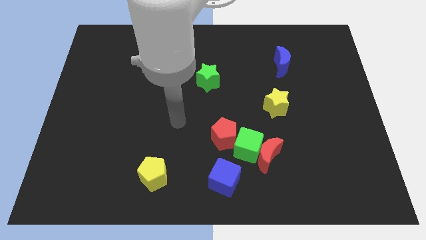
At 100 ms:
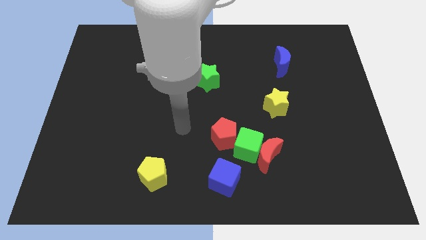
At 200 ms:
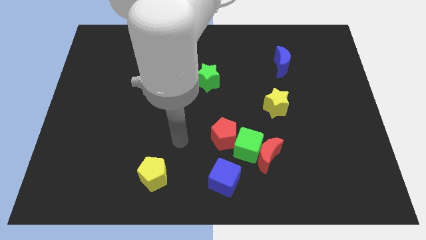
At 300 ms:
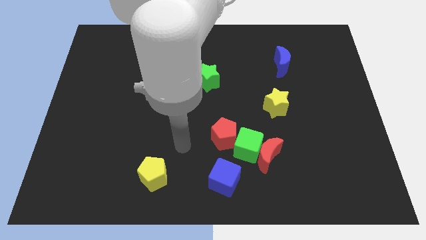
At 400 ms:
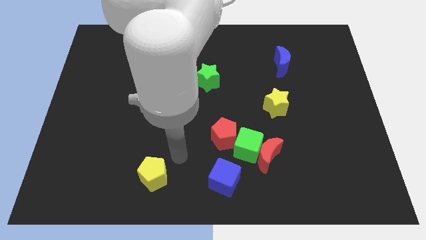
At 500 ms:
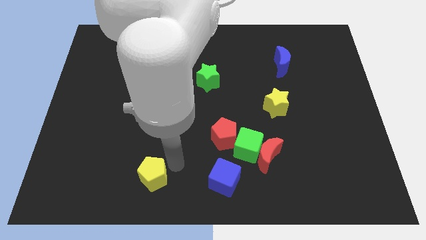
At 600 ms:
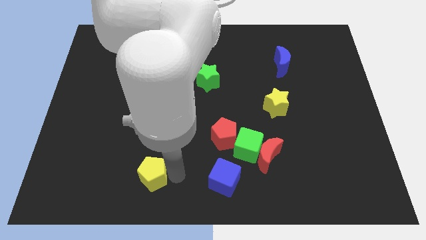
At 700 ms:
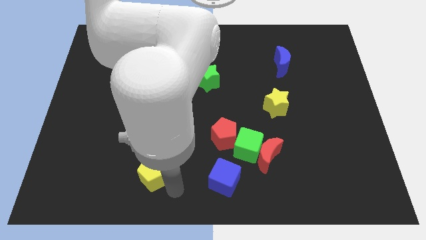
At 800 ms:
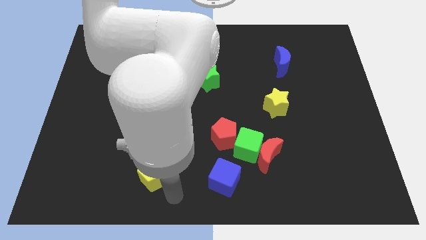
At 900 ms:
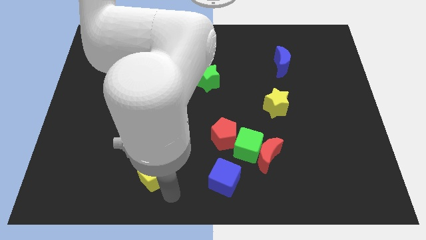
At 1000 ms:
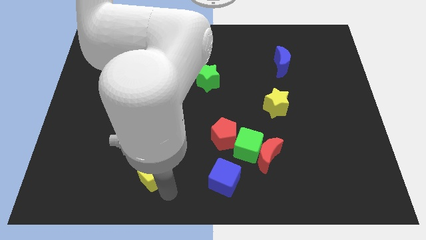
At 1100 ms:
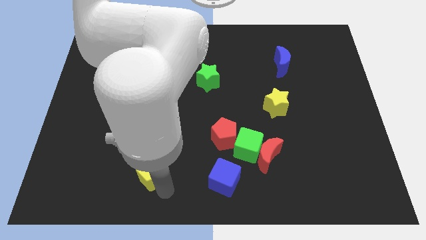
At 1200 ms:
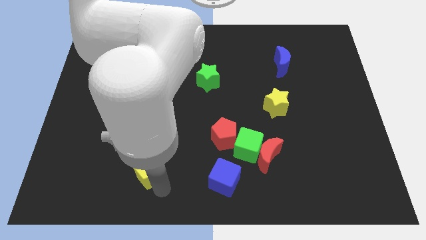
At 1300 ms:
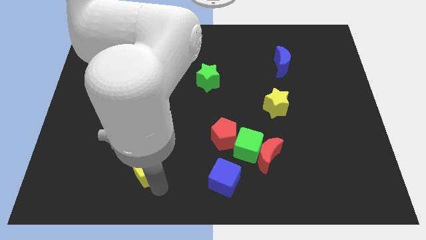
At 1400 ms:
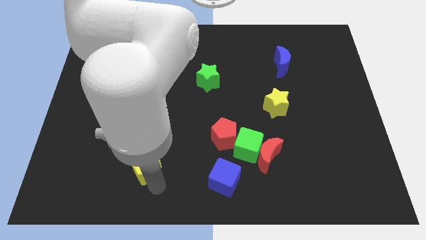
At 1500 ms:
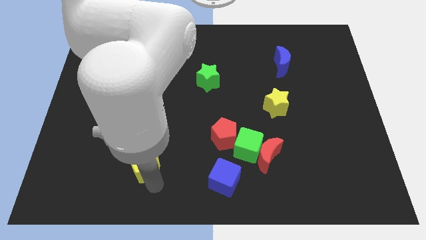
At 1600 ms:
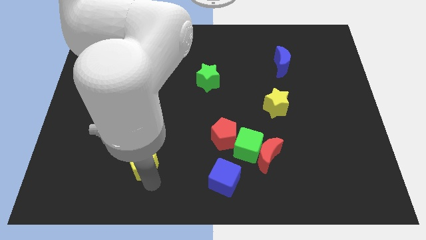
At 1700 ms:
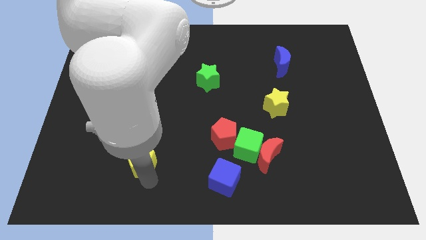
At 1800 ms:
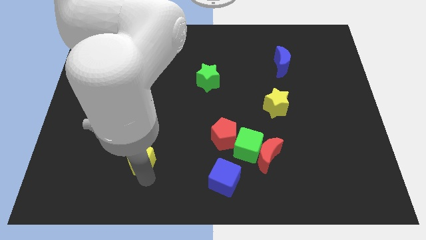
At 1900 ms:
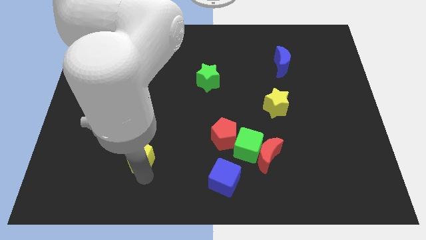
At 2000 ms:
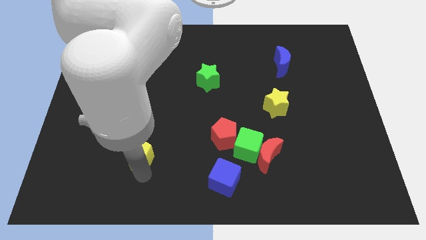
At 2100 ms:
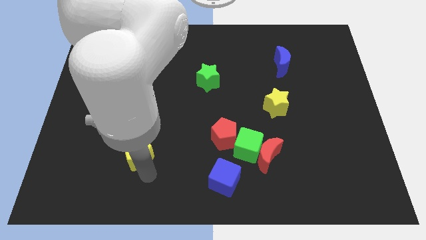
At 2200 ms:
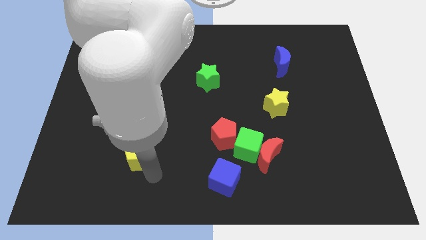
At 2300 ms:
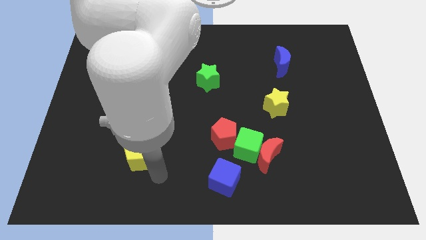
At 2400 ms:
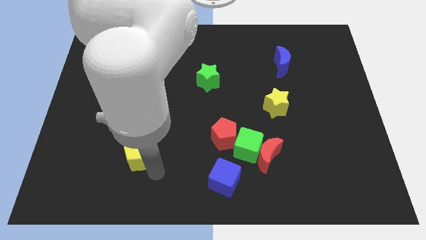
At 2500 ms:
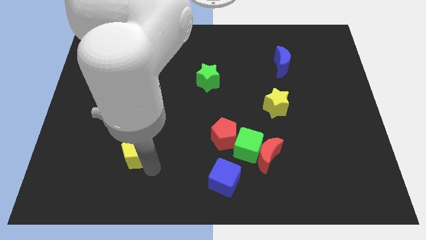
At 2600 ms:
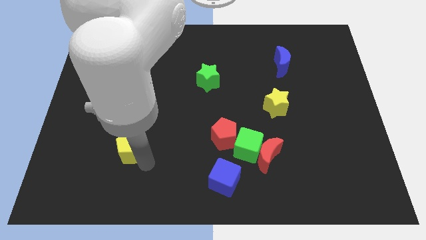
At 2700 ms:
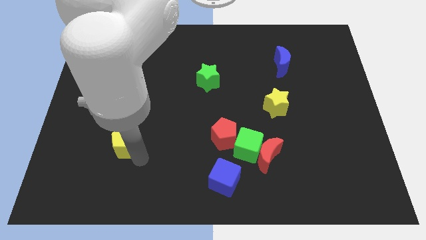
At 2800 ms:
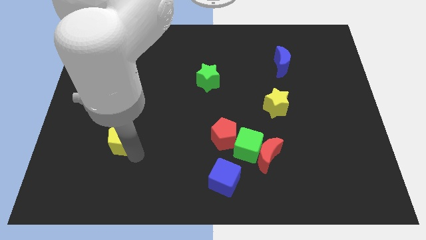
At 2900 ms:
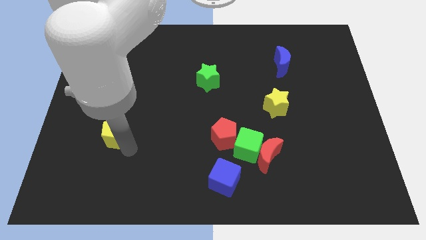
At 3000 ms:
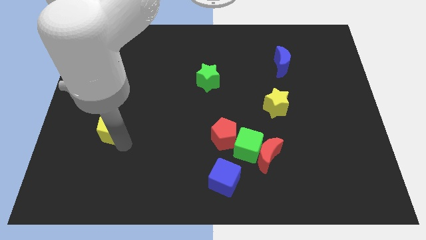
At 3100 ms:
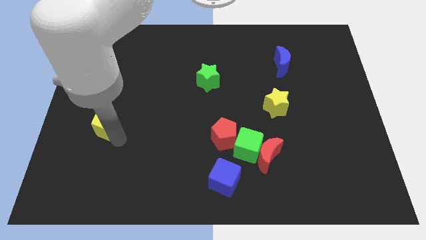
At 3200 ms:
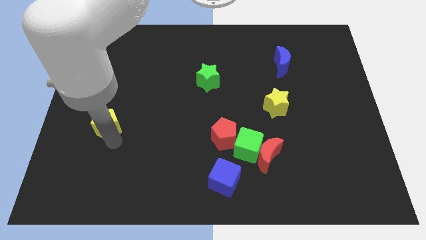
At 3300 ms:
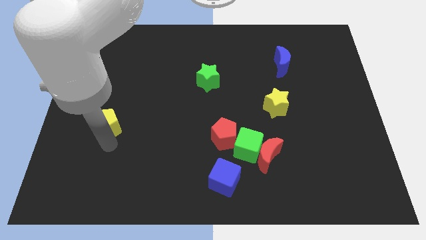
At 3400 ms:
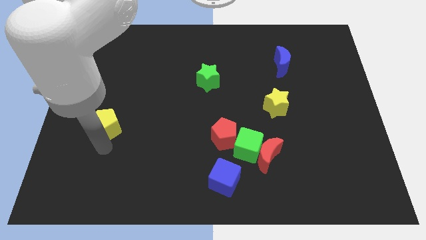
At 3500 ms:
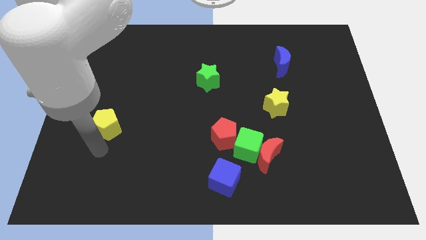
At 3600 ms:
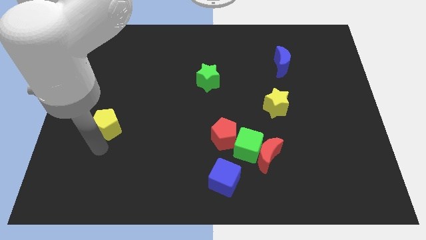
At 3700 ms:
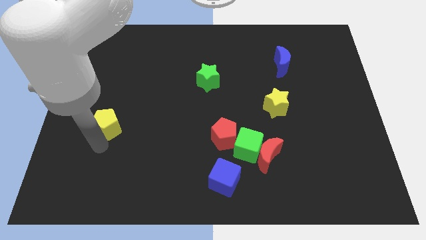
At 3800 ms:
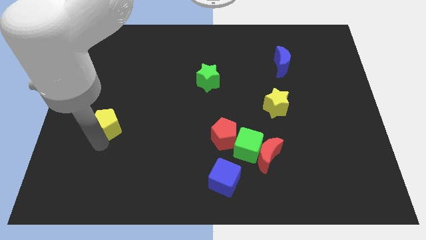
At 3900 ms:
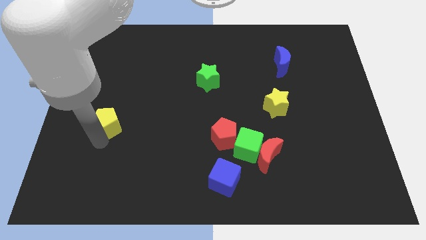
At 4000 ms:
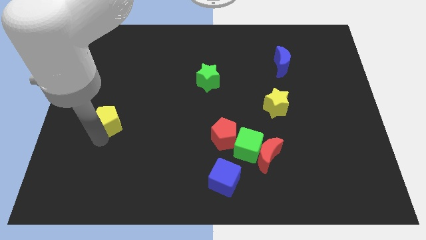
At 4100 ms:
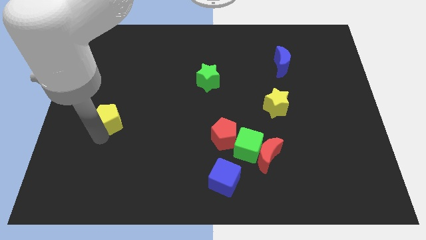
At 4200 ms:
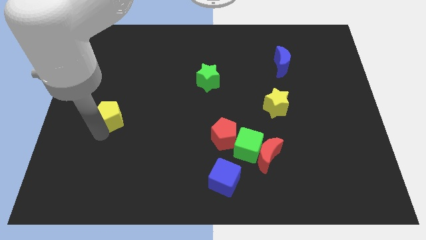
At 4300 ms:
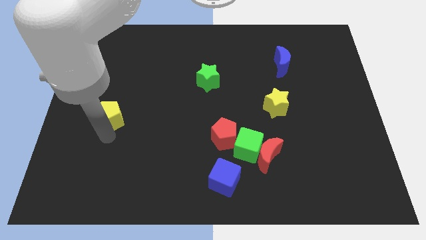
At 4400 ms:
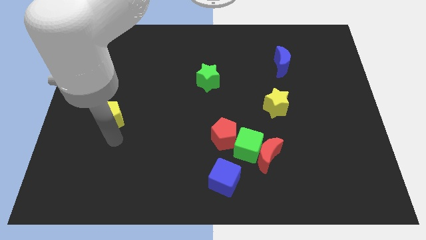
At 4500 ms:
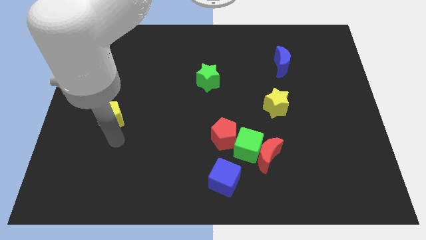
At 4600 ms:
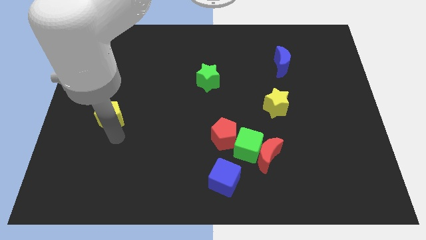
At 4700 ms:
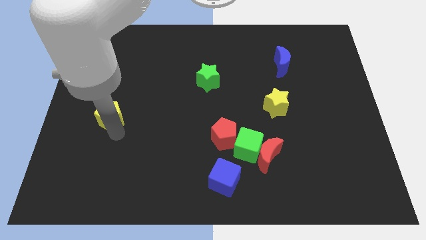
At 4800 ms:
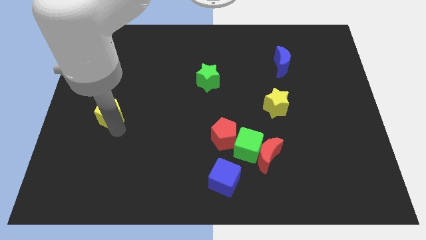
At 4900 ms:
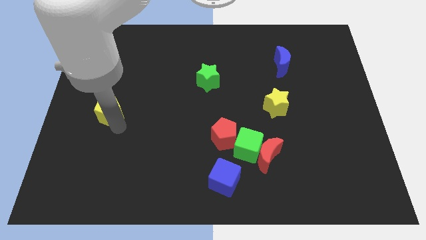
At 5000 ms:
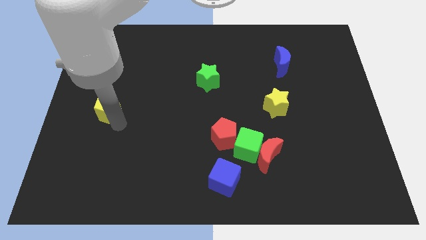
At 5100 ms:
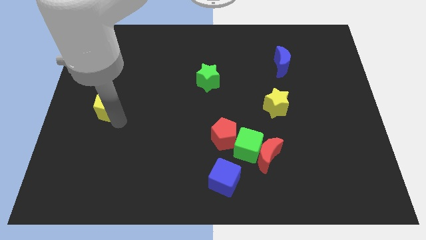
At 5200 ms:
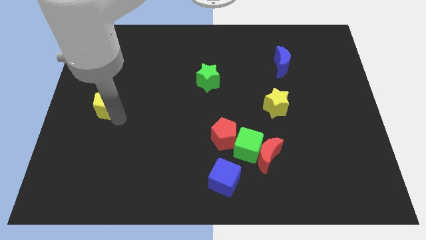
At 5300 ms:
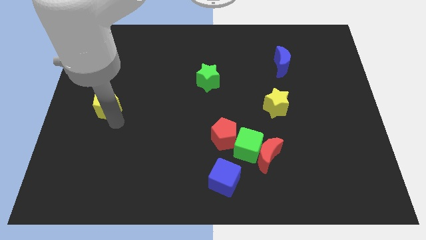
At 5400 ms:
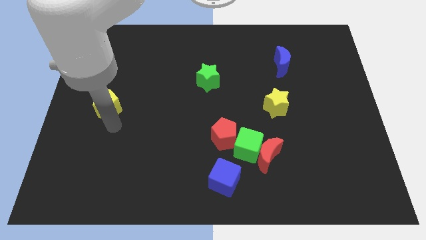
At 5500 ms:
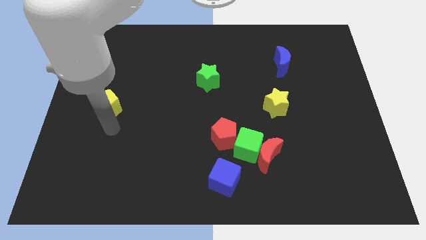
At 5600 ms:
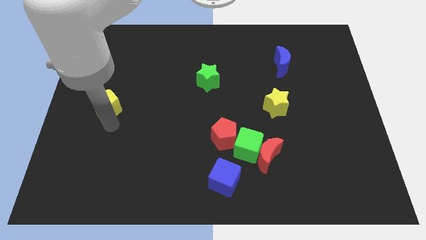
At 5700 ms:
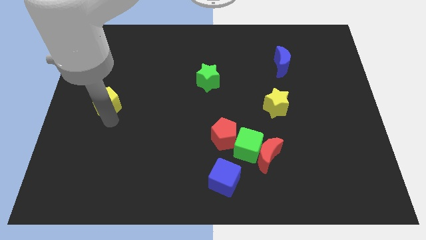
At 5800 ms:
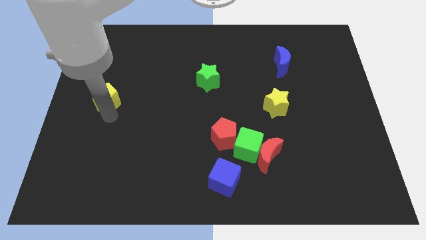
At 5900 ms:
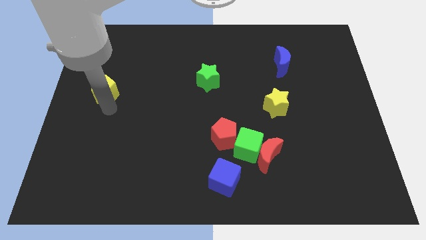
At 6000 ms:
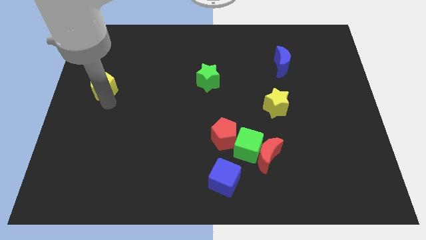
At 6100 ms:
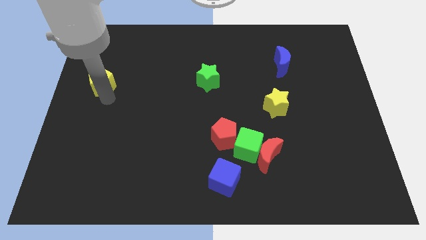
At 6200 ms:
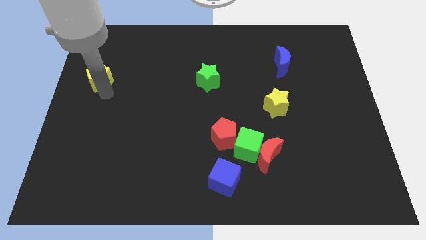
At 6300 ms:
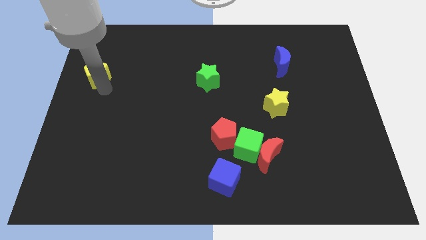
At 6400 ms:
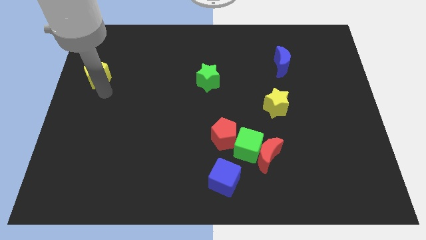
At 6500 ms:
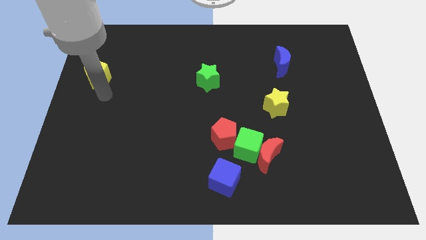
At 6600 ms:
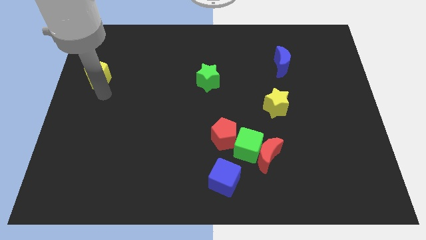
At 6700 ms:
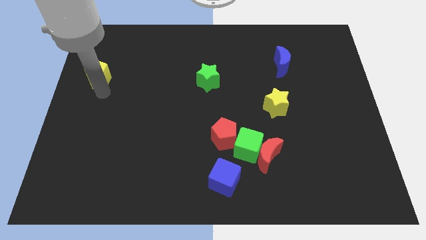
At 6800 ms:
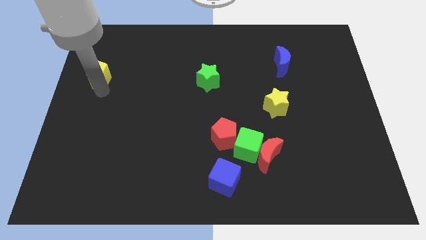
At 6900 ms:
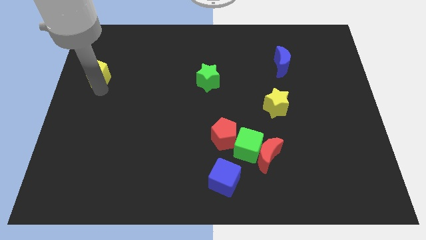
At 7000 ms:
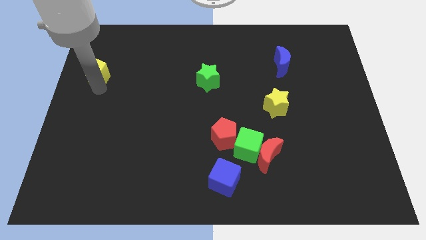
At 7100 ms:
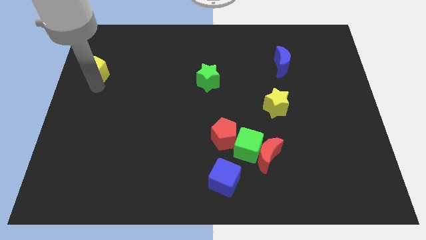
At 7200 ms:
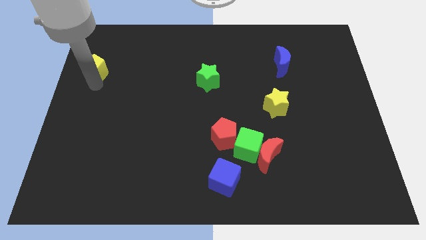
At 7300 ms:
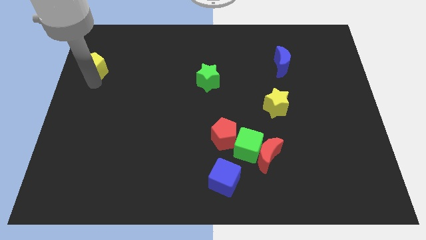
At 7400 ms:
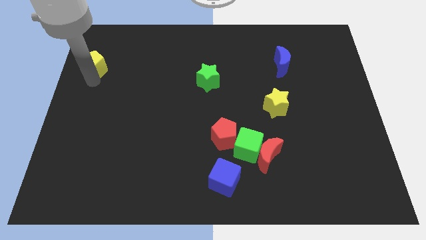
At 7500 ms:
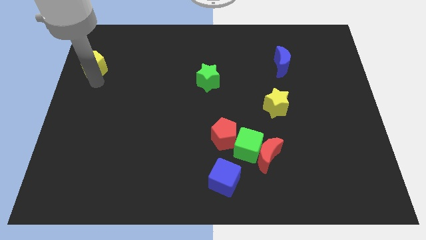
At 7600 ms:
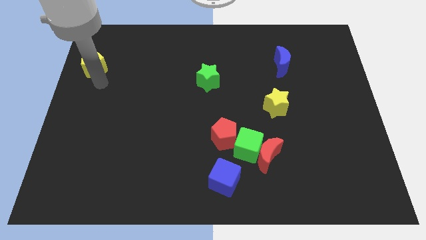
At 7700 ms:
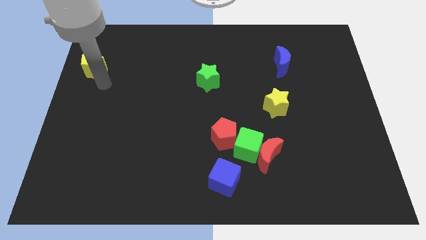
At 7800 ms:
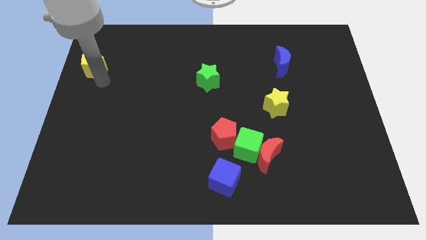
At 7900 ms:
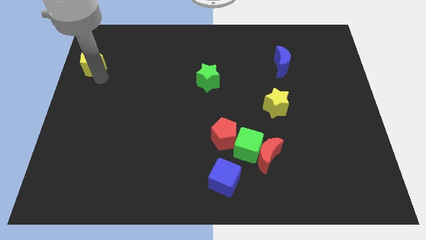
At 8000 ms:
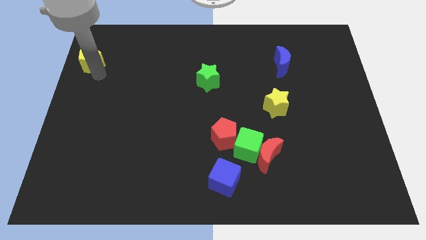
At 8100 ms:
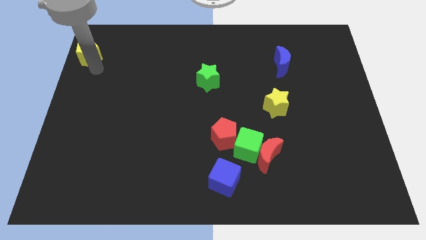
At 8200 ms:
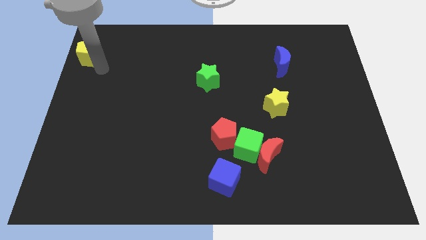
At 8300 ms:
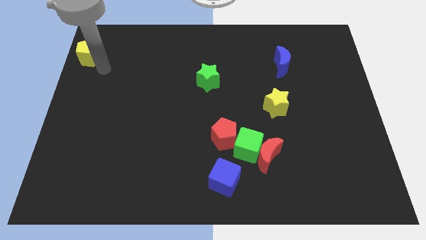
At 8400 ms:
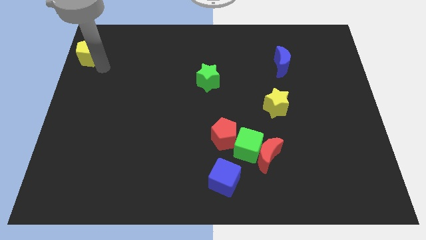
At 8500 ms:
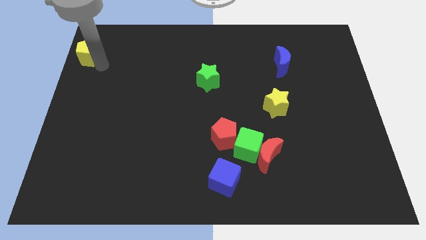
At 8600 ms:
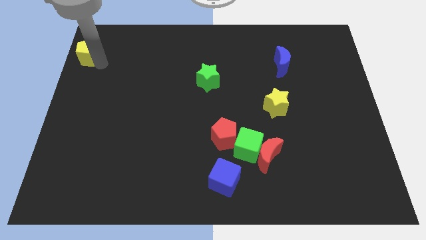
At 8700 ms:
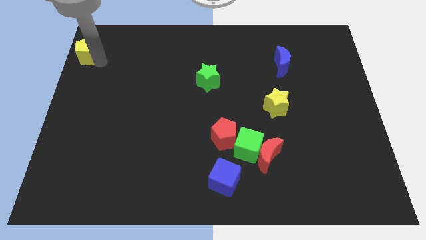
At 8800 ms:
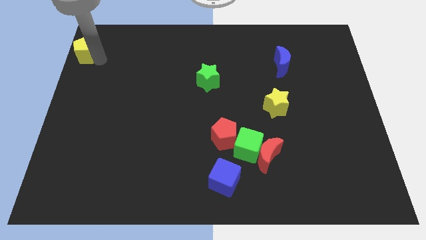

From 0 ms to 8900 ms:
move the yellow pentagon to the upper left corner
